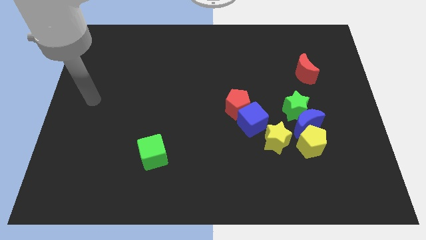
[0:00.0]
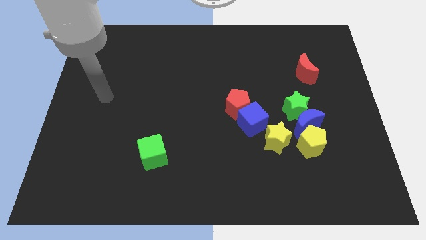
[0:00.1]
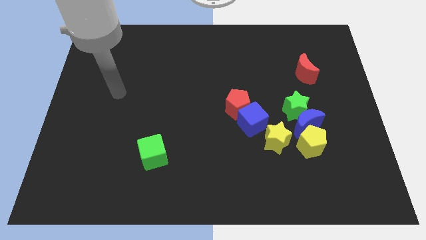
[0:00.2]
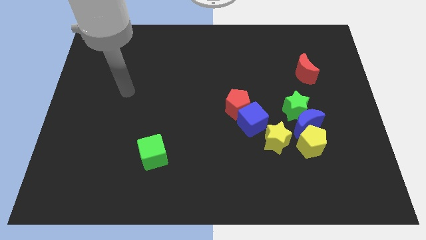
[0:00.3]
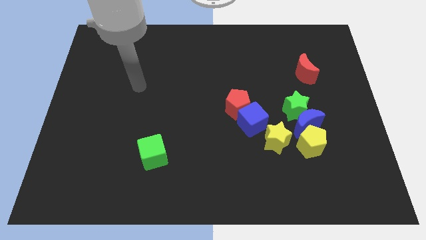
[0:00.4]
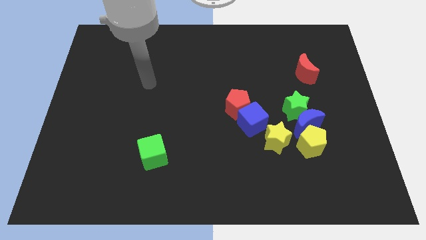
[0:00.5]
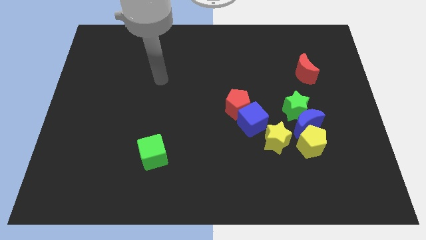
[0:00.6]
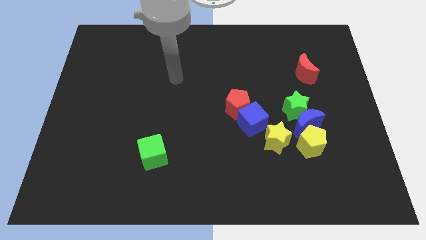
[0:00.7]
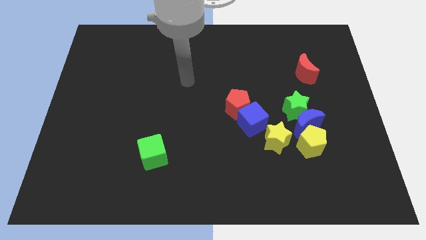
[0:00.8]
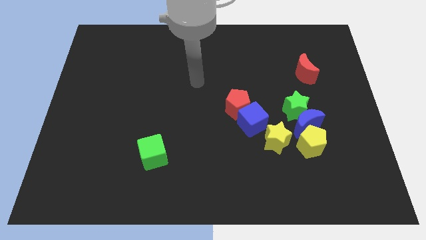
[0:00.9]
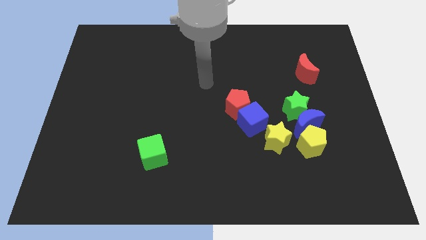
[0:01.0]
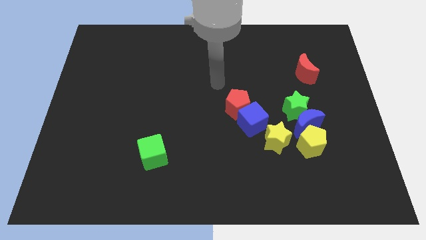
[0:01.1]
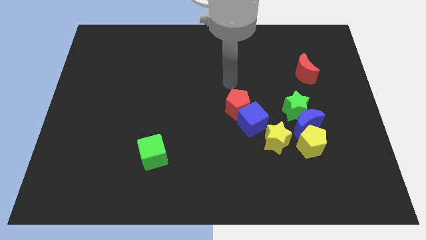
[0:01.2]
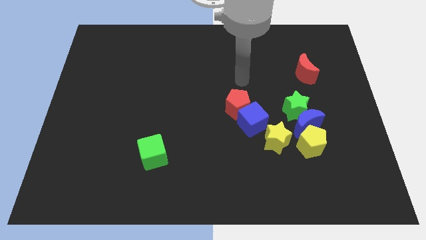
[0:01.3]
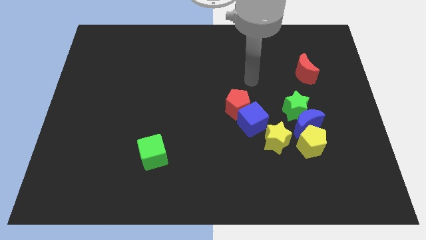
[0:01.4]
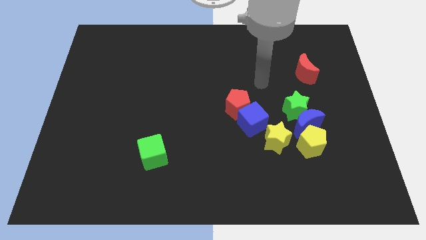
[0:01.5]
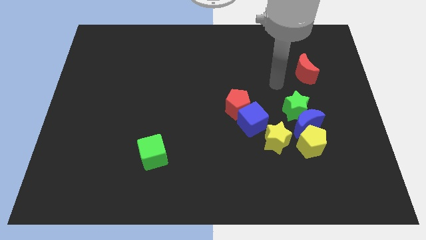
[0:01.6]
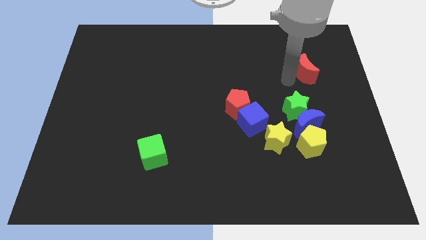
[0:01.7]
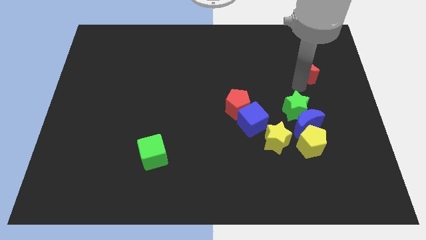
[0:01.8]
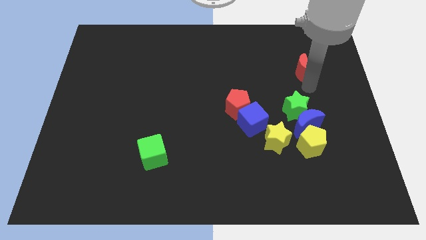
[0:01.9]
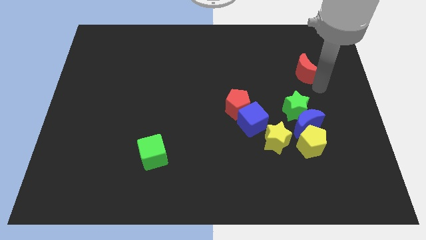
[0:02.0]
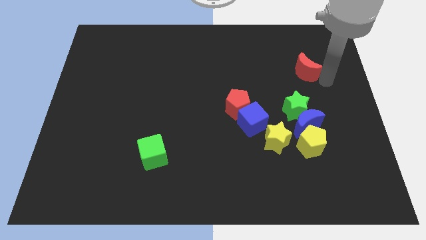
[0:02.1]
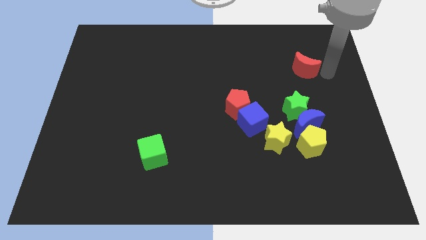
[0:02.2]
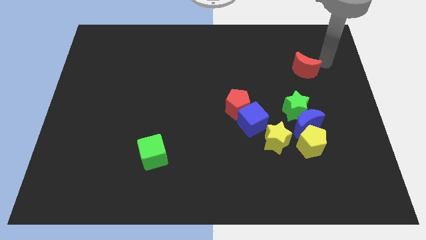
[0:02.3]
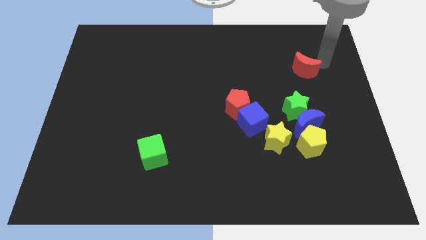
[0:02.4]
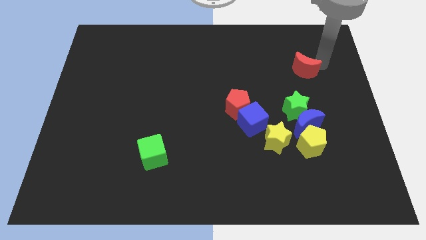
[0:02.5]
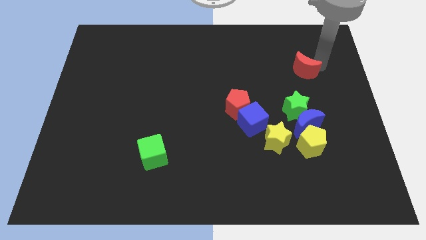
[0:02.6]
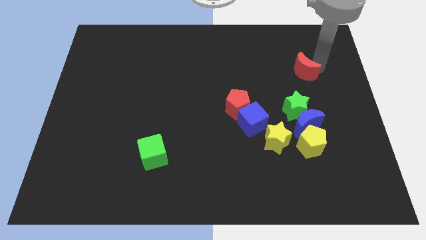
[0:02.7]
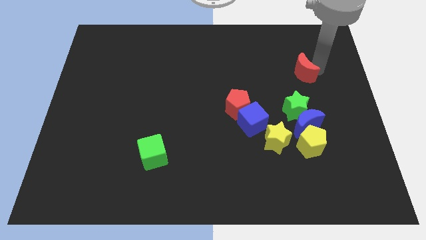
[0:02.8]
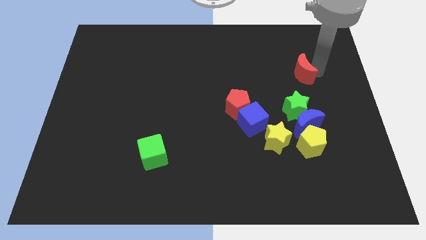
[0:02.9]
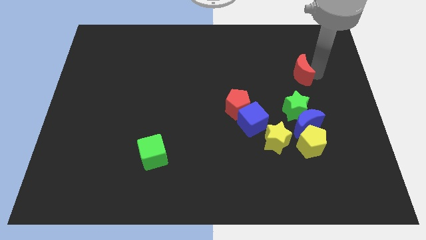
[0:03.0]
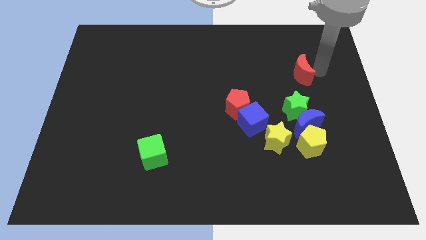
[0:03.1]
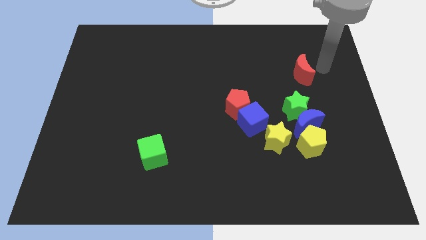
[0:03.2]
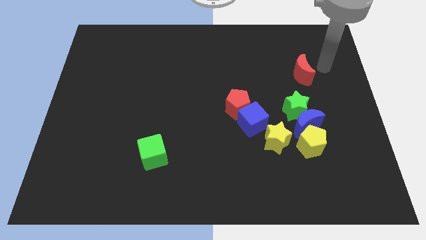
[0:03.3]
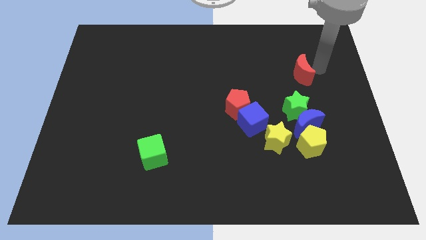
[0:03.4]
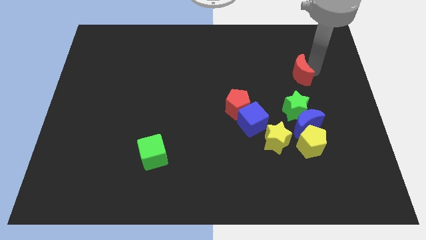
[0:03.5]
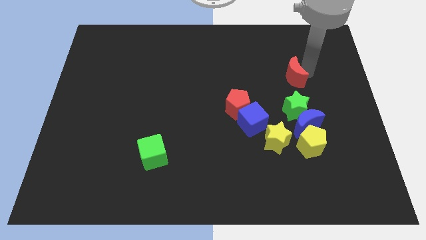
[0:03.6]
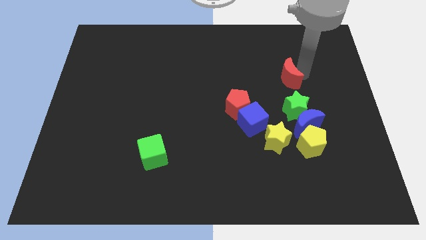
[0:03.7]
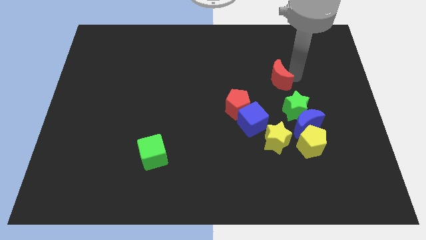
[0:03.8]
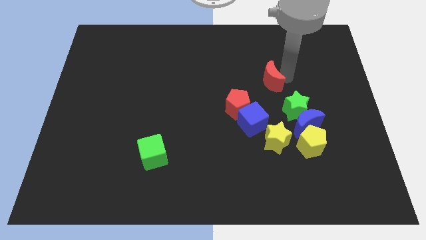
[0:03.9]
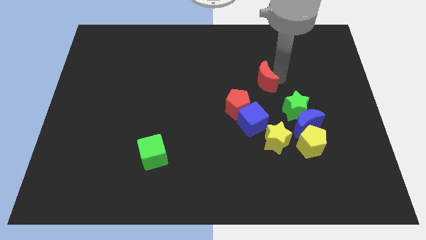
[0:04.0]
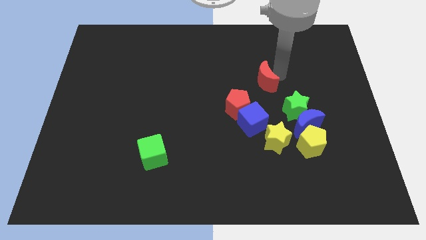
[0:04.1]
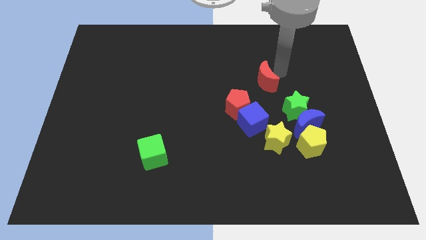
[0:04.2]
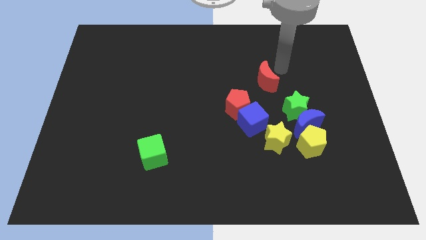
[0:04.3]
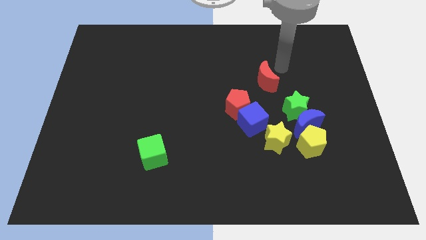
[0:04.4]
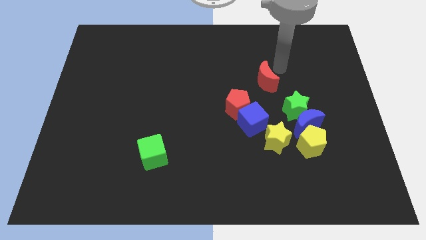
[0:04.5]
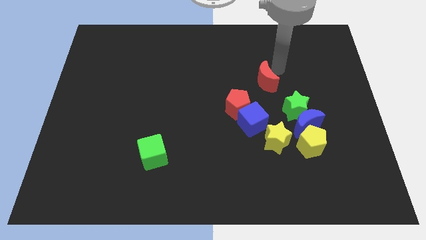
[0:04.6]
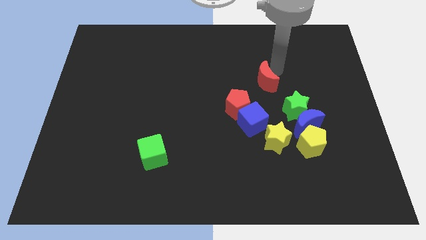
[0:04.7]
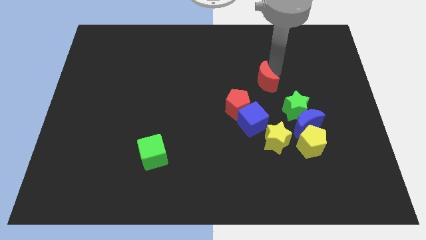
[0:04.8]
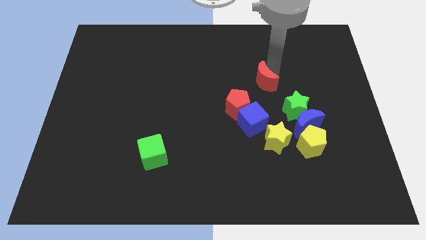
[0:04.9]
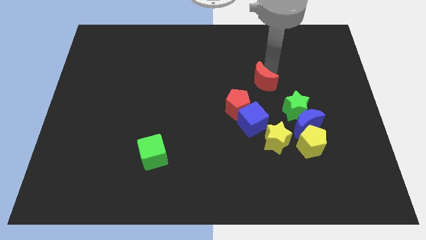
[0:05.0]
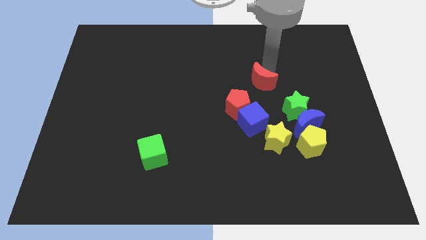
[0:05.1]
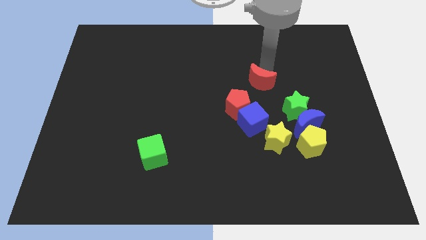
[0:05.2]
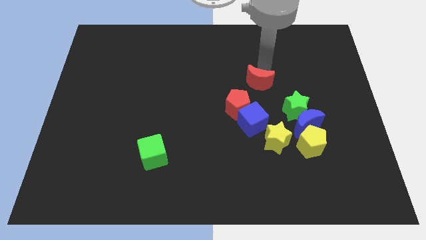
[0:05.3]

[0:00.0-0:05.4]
push the red moon to the center

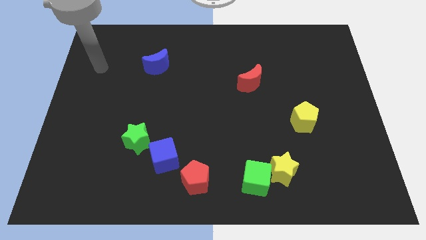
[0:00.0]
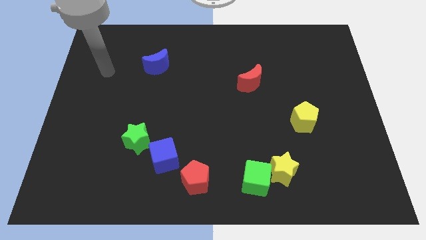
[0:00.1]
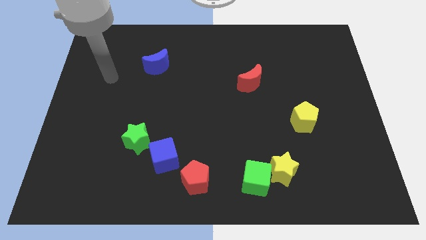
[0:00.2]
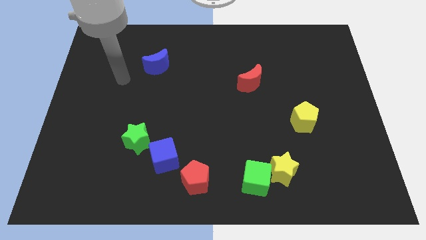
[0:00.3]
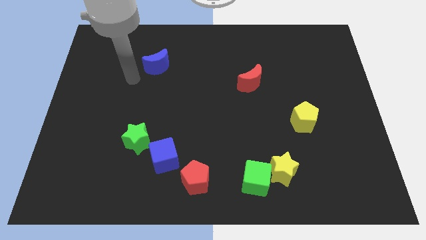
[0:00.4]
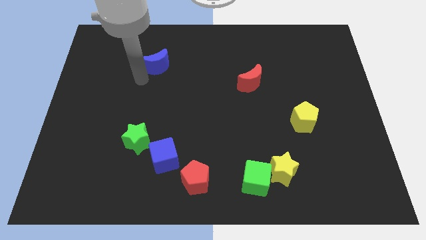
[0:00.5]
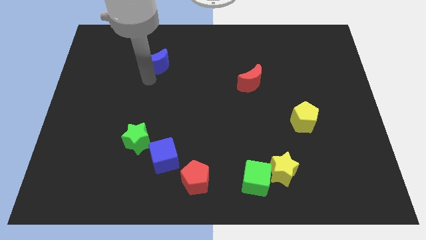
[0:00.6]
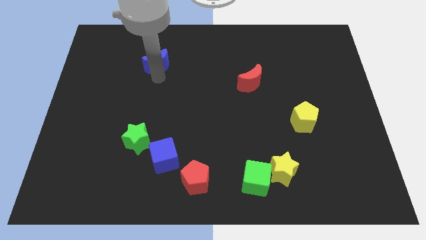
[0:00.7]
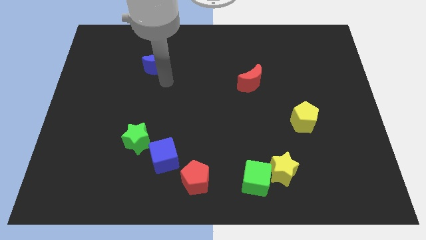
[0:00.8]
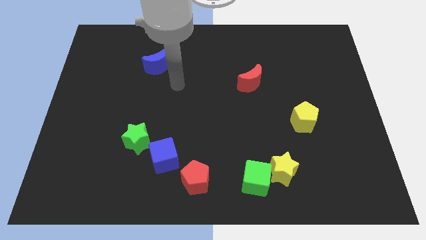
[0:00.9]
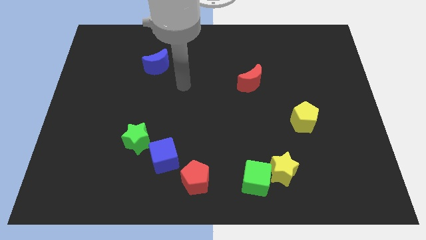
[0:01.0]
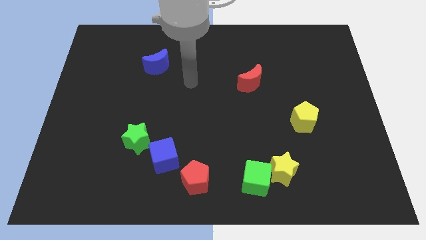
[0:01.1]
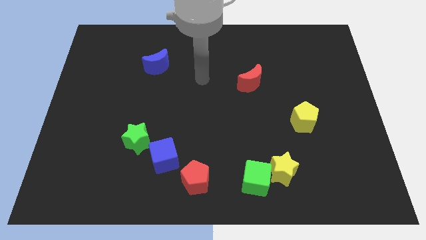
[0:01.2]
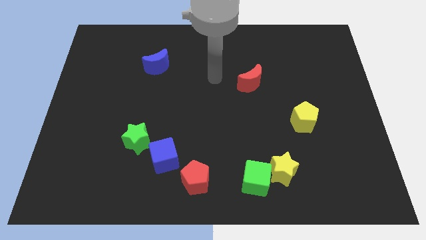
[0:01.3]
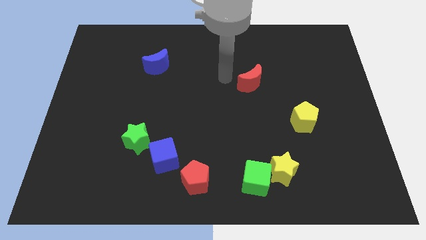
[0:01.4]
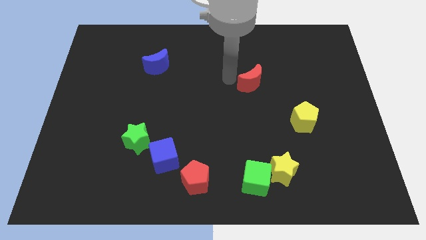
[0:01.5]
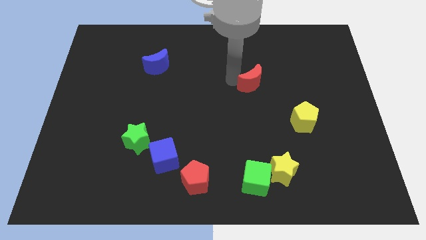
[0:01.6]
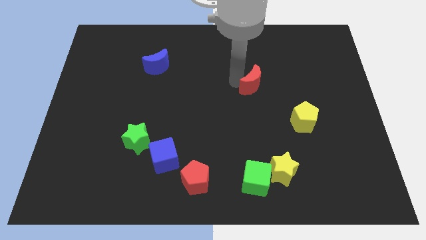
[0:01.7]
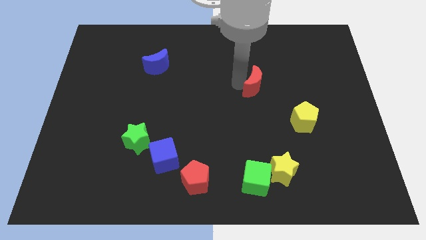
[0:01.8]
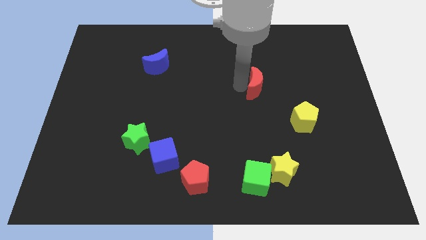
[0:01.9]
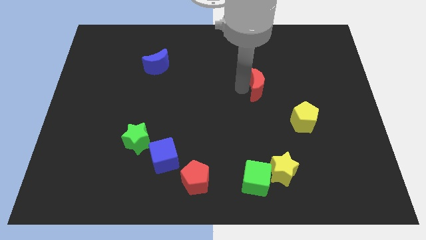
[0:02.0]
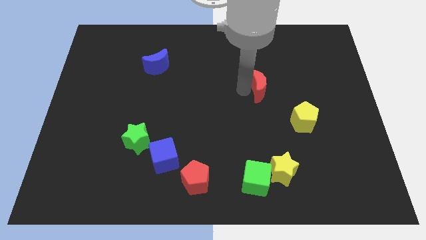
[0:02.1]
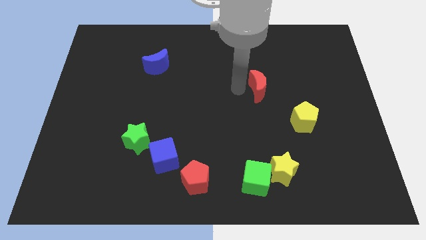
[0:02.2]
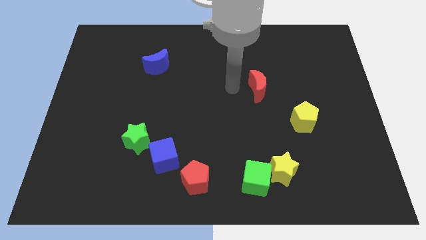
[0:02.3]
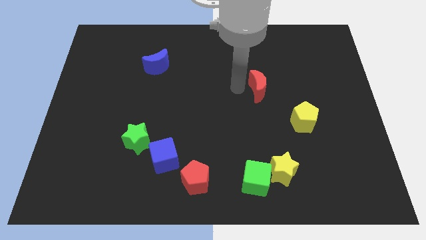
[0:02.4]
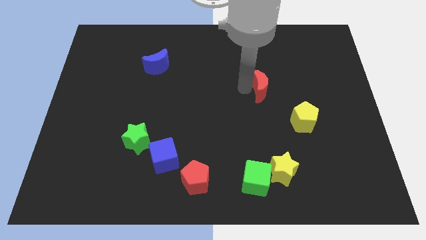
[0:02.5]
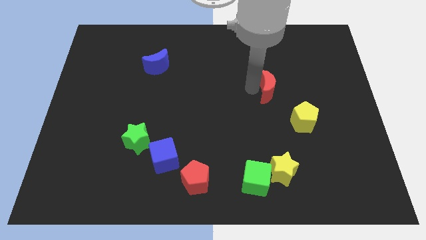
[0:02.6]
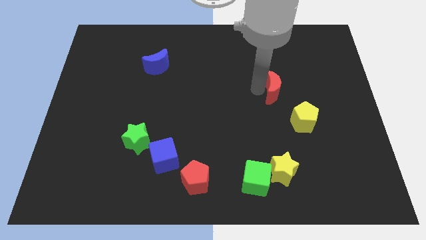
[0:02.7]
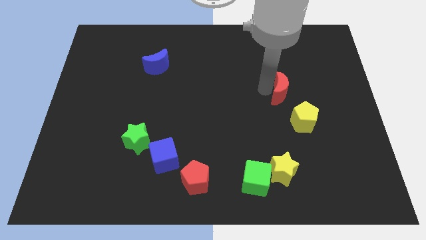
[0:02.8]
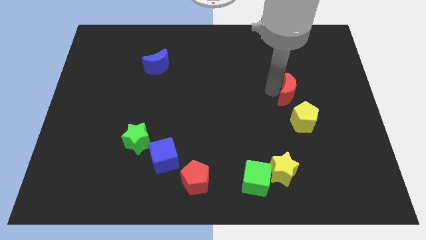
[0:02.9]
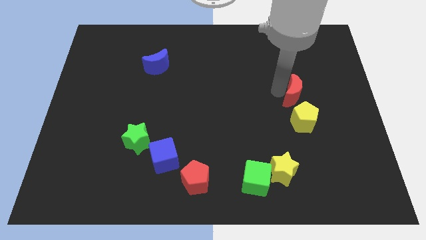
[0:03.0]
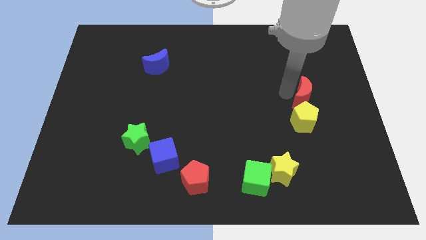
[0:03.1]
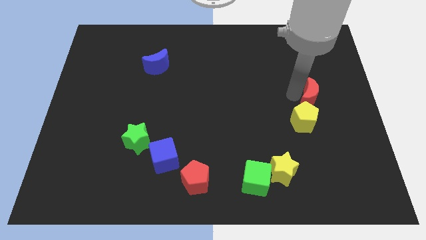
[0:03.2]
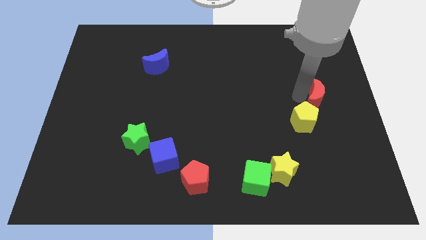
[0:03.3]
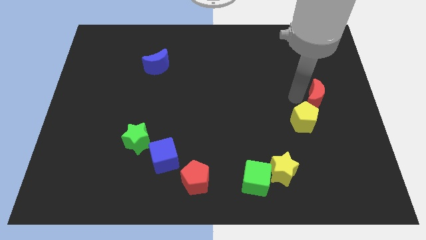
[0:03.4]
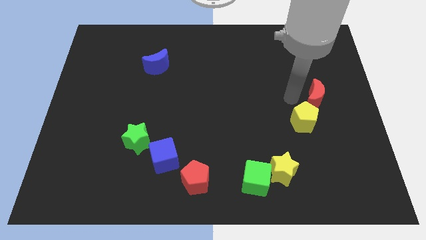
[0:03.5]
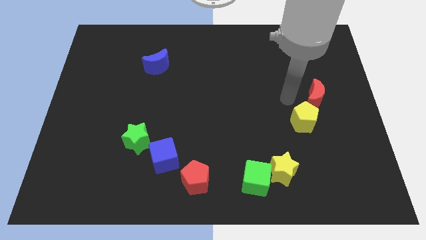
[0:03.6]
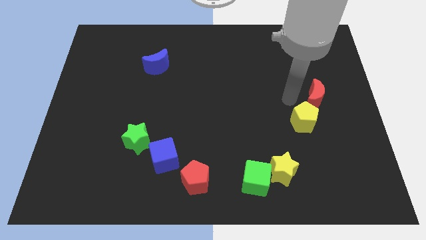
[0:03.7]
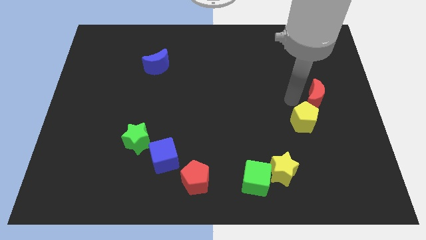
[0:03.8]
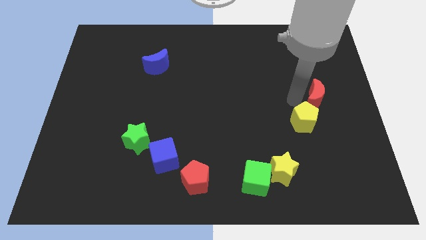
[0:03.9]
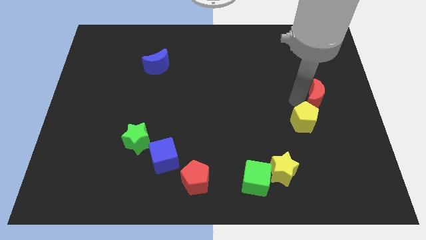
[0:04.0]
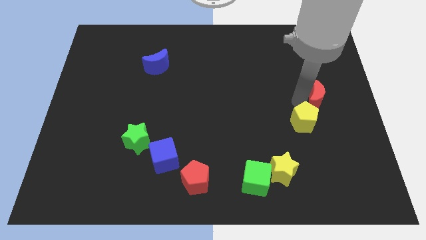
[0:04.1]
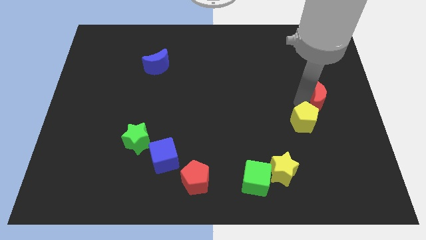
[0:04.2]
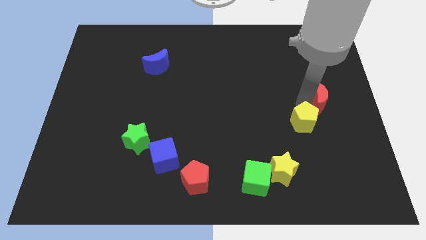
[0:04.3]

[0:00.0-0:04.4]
slide the red moon to the right side of the board
